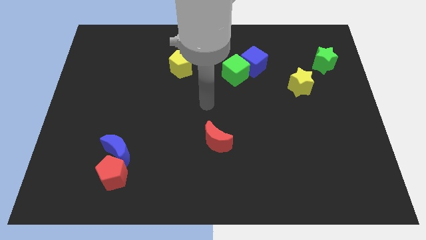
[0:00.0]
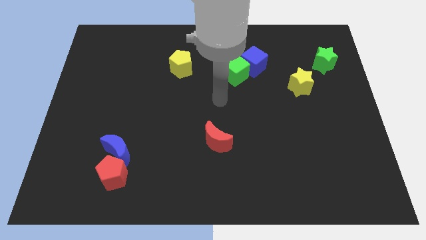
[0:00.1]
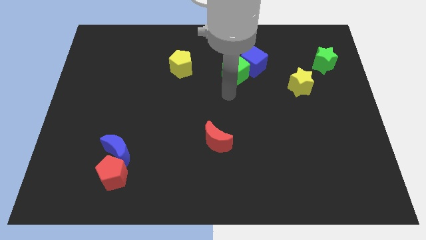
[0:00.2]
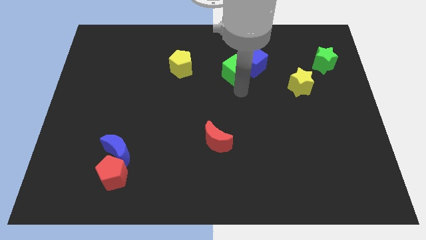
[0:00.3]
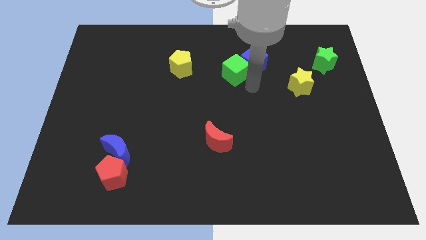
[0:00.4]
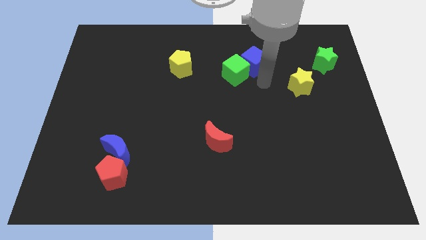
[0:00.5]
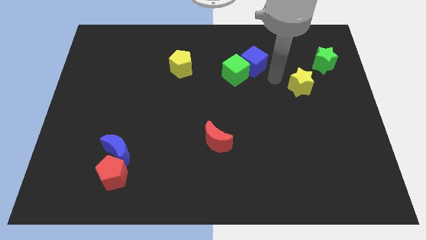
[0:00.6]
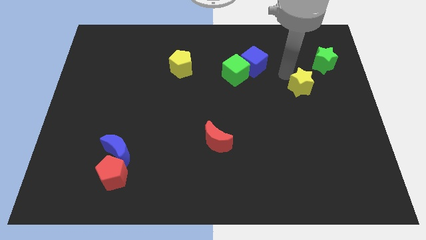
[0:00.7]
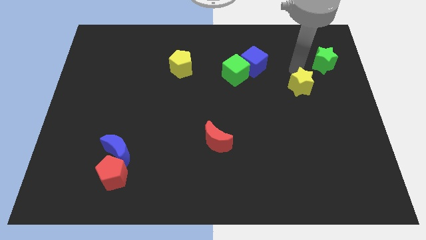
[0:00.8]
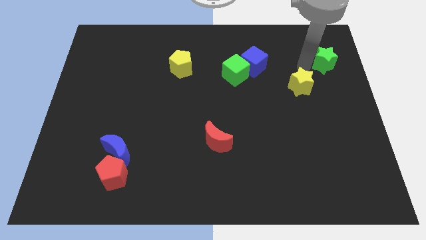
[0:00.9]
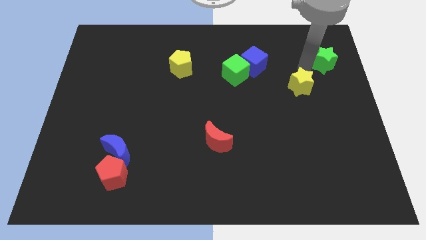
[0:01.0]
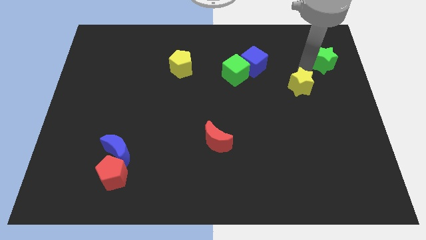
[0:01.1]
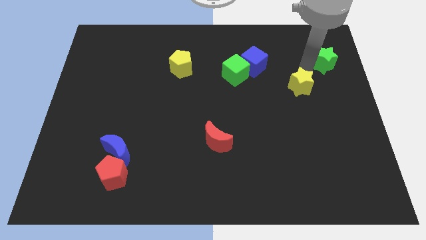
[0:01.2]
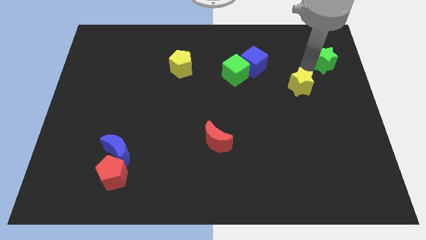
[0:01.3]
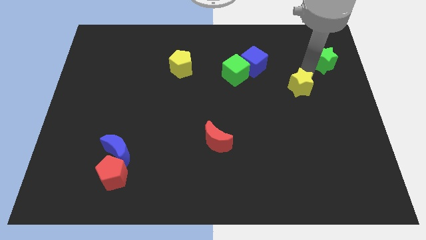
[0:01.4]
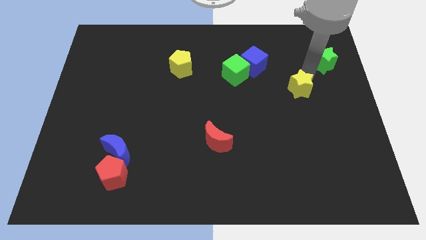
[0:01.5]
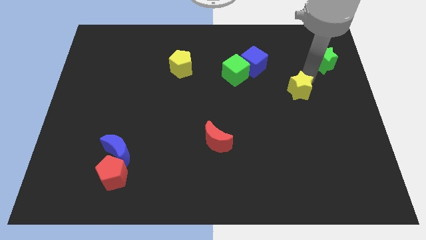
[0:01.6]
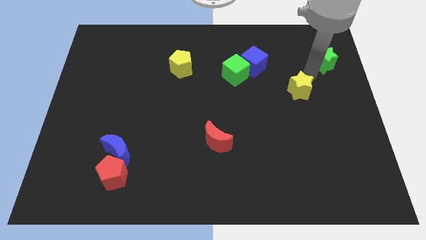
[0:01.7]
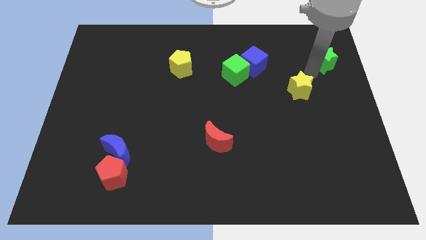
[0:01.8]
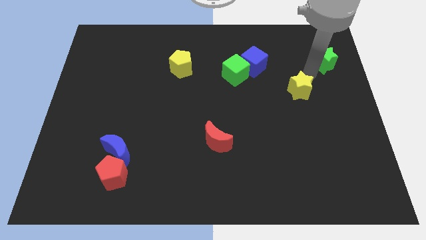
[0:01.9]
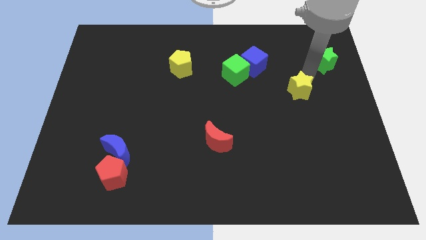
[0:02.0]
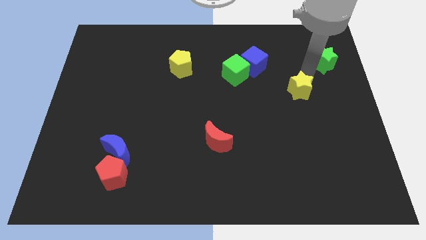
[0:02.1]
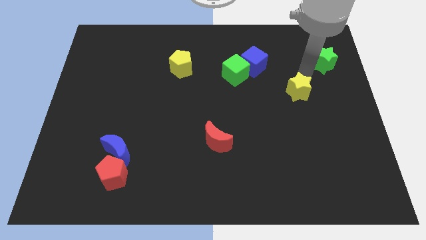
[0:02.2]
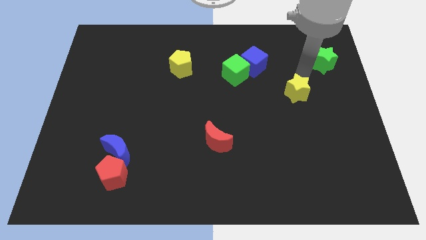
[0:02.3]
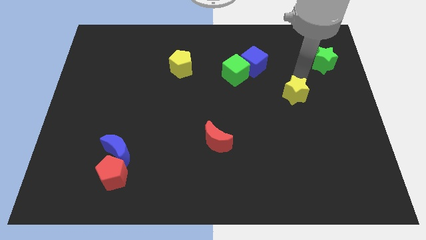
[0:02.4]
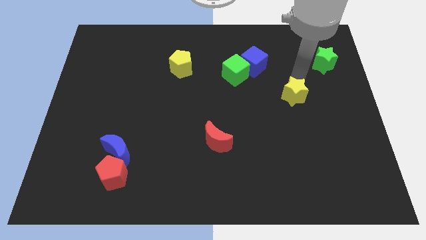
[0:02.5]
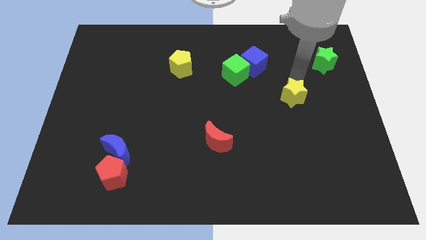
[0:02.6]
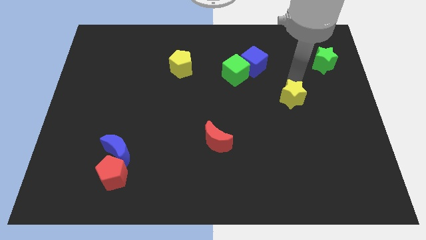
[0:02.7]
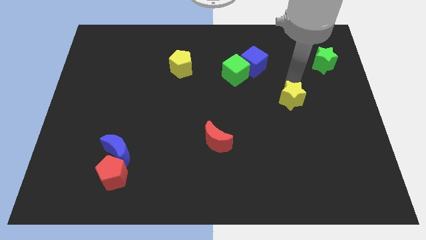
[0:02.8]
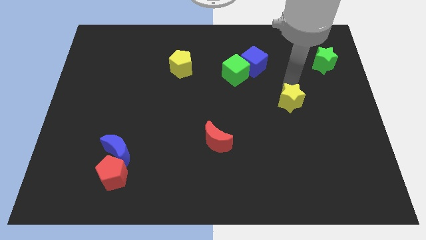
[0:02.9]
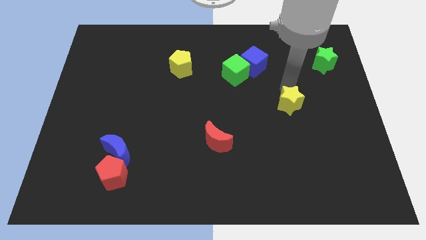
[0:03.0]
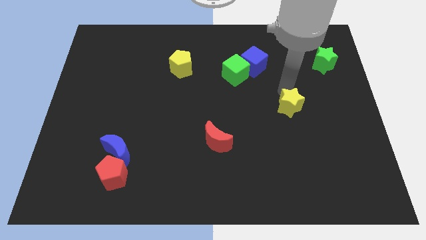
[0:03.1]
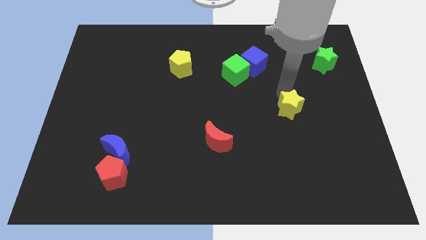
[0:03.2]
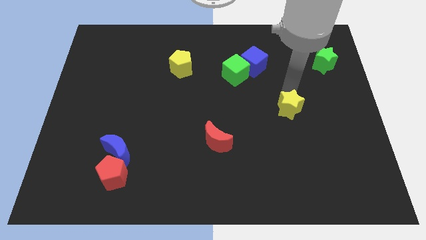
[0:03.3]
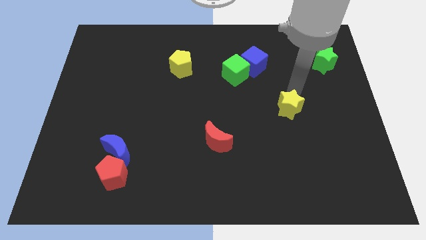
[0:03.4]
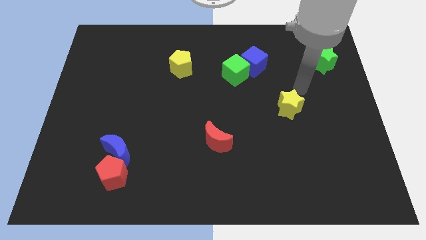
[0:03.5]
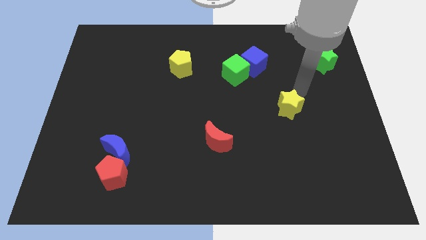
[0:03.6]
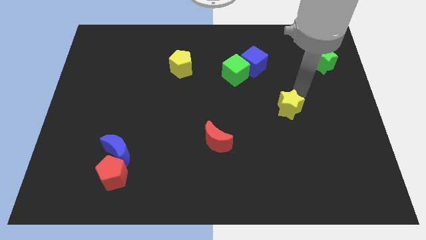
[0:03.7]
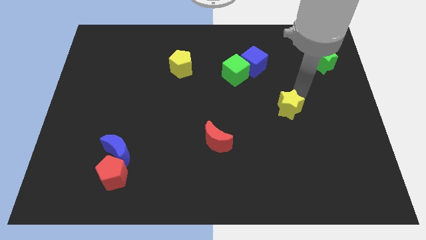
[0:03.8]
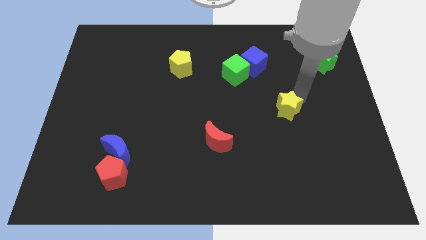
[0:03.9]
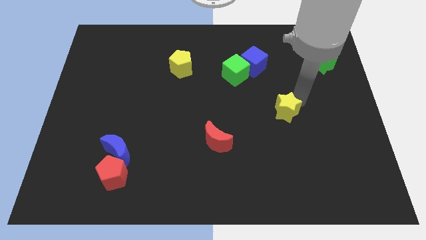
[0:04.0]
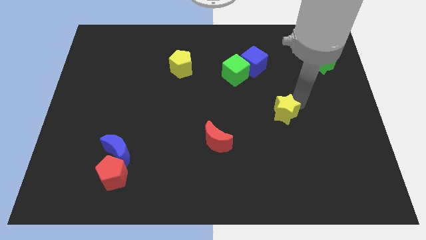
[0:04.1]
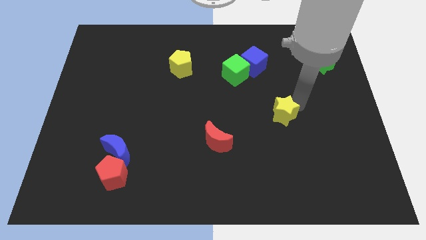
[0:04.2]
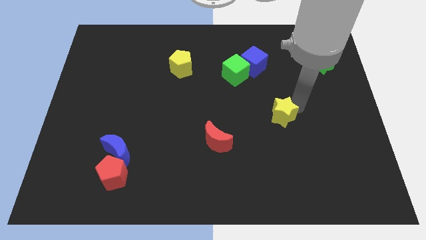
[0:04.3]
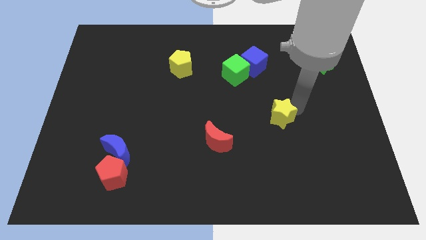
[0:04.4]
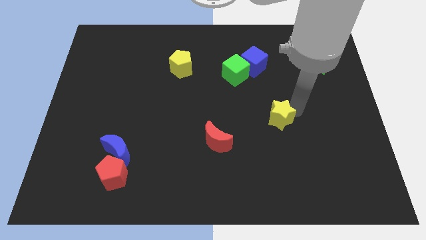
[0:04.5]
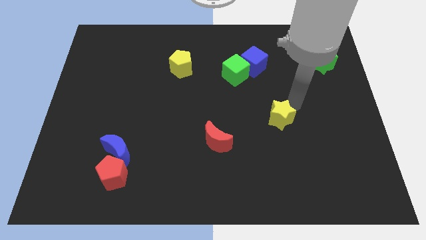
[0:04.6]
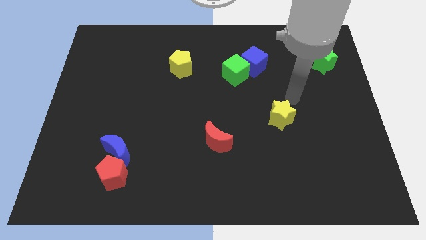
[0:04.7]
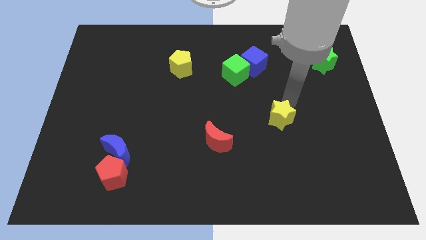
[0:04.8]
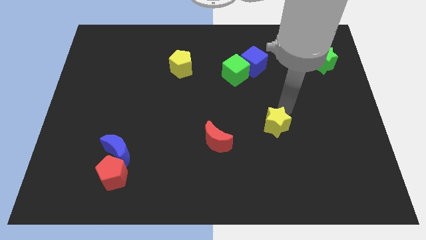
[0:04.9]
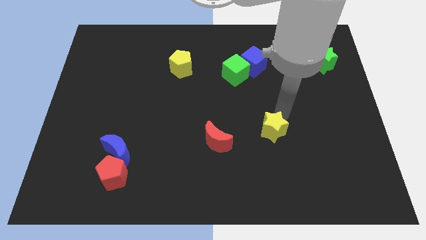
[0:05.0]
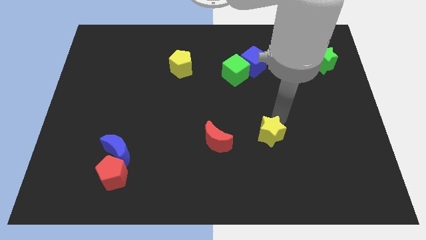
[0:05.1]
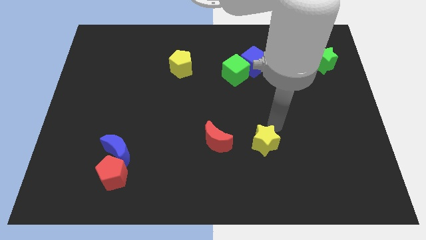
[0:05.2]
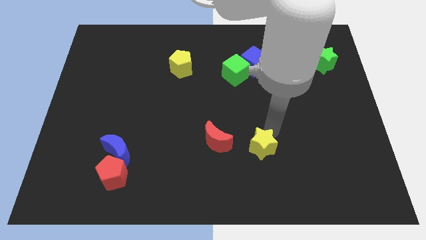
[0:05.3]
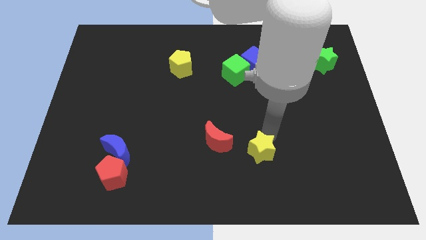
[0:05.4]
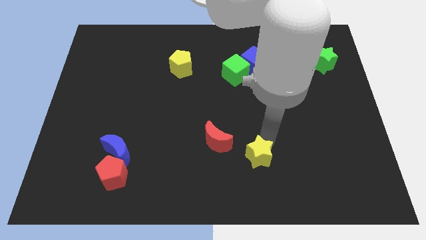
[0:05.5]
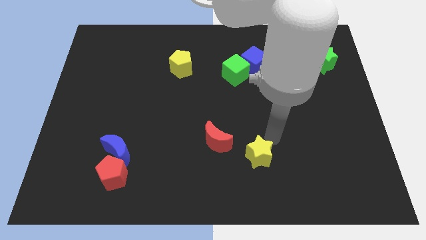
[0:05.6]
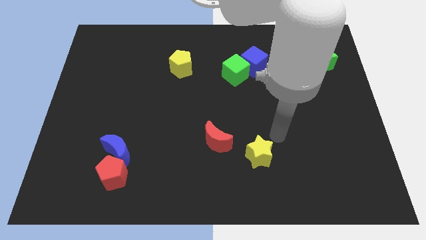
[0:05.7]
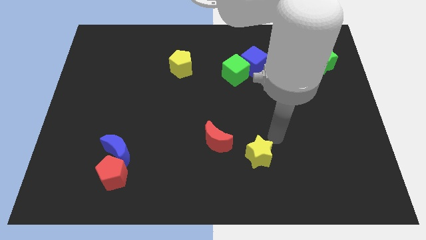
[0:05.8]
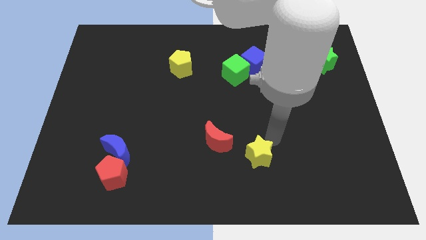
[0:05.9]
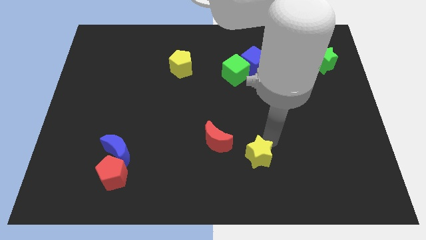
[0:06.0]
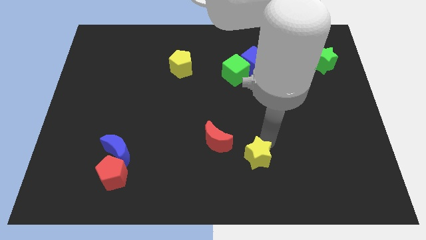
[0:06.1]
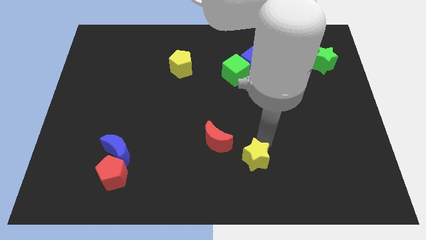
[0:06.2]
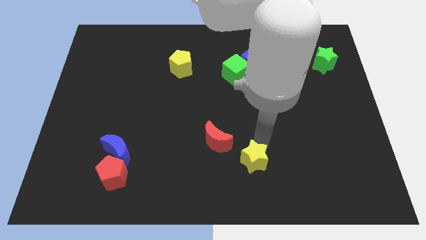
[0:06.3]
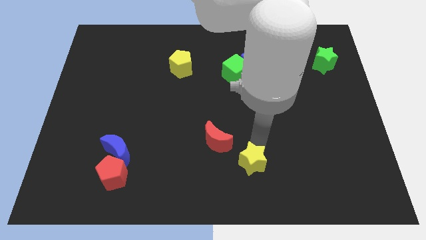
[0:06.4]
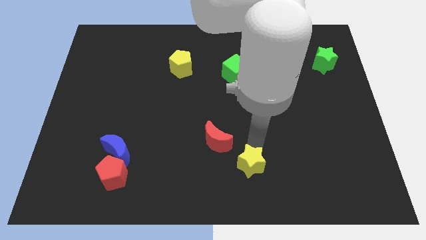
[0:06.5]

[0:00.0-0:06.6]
push the yellow star to the bottom side
